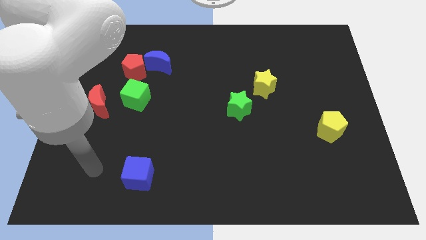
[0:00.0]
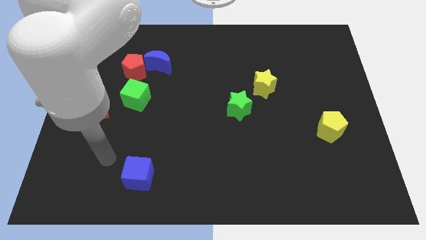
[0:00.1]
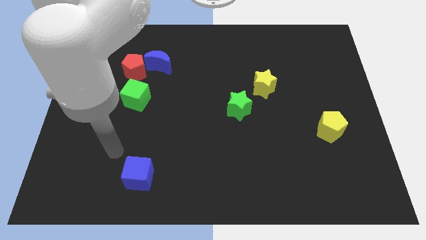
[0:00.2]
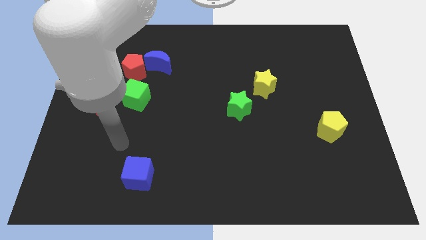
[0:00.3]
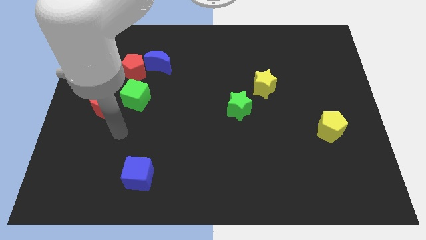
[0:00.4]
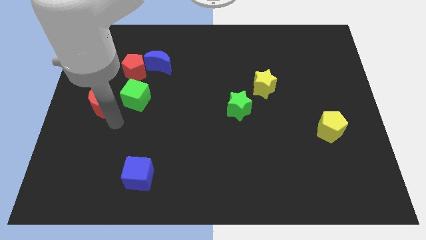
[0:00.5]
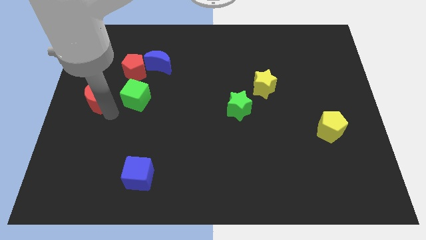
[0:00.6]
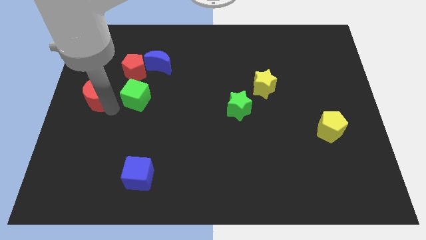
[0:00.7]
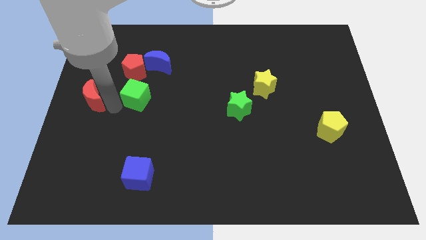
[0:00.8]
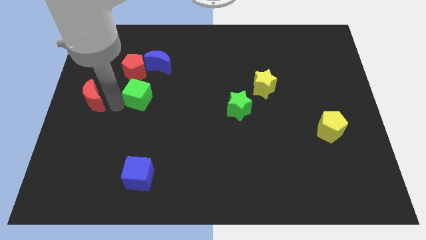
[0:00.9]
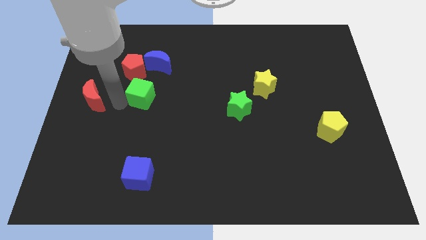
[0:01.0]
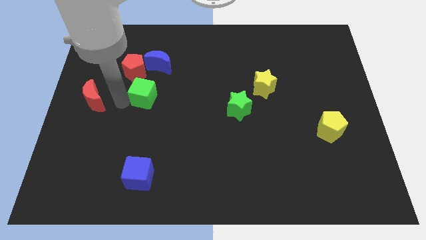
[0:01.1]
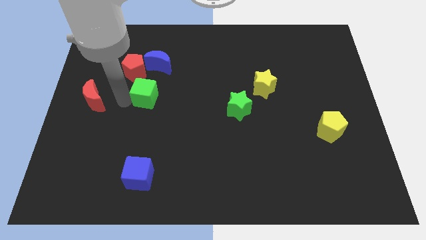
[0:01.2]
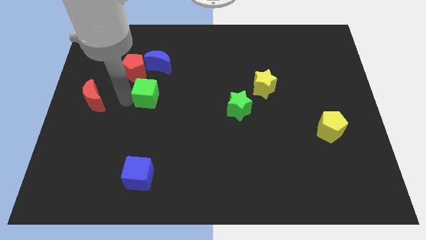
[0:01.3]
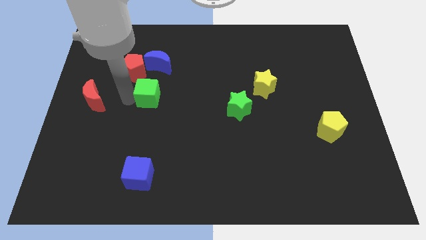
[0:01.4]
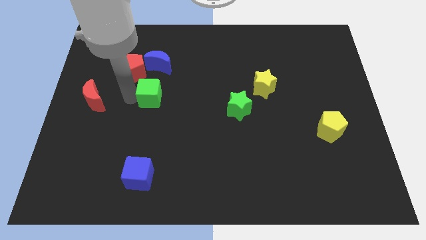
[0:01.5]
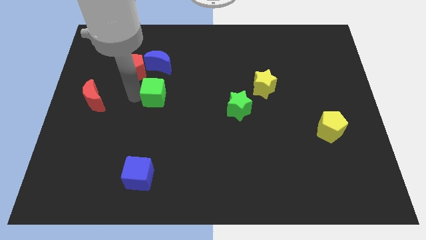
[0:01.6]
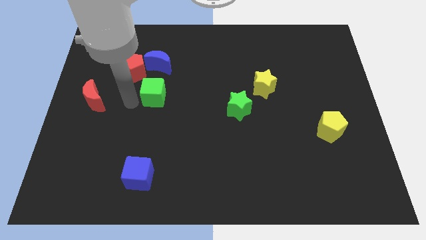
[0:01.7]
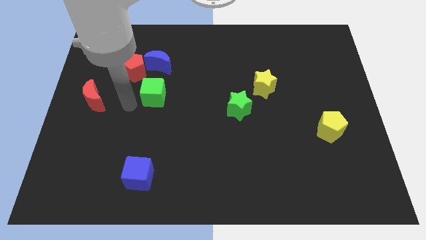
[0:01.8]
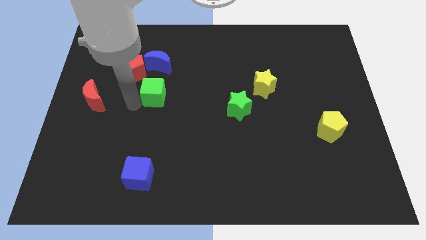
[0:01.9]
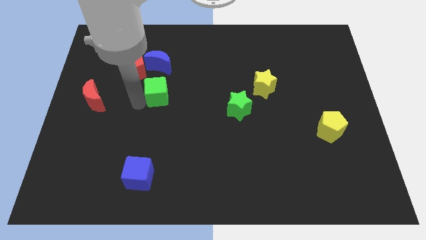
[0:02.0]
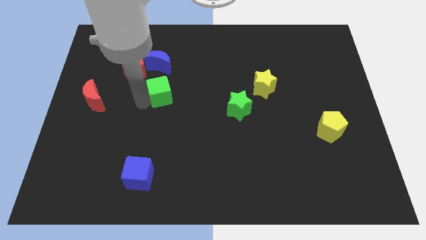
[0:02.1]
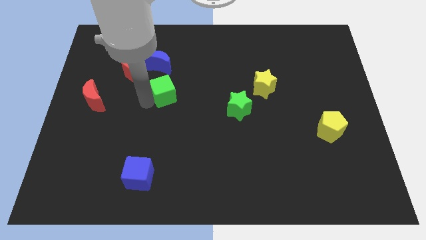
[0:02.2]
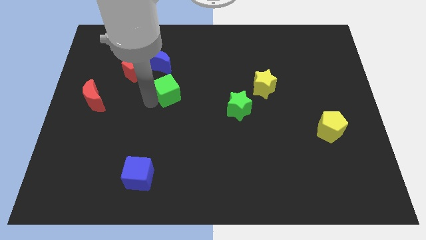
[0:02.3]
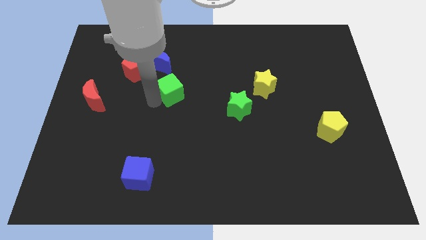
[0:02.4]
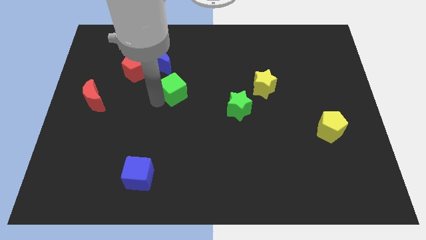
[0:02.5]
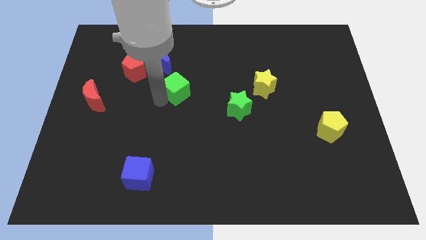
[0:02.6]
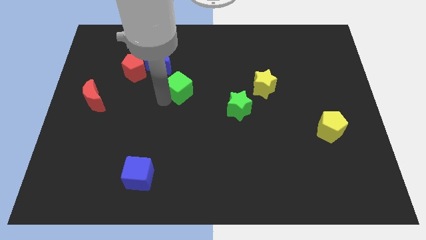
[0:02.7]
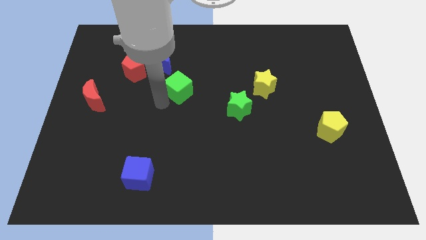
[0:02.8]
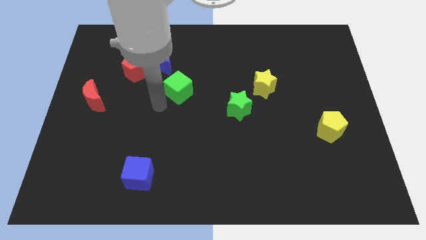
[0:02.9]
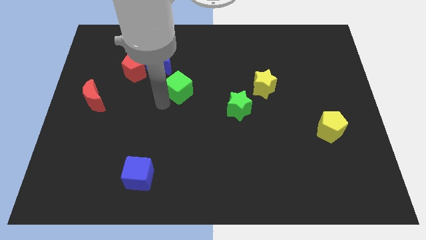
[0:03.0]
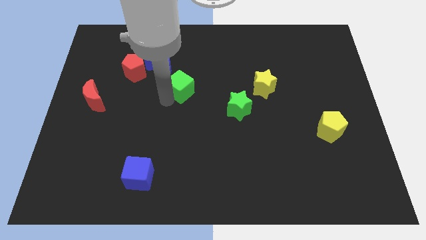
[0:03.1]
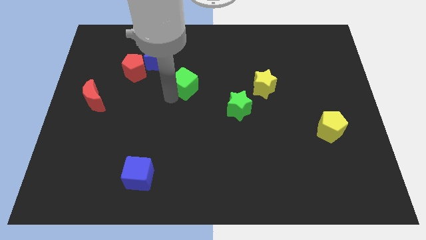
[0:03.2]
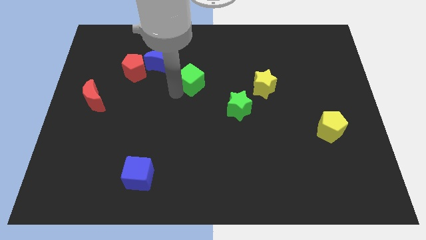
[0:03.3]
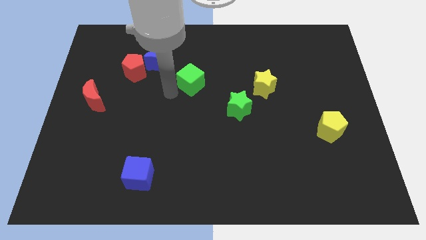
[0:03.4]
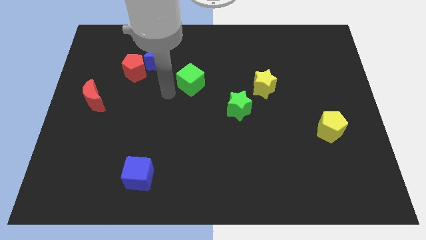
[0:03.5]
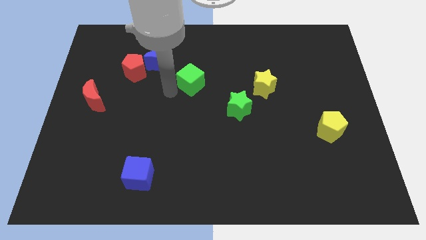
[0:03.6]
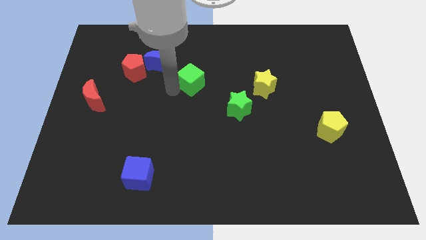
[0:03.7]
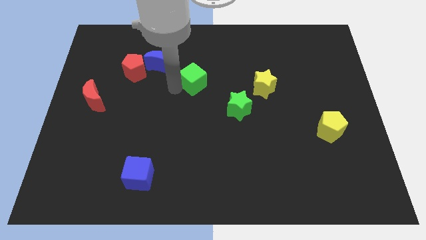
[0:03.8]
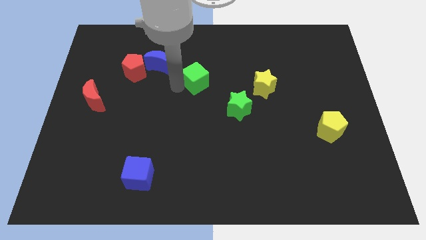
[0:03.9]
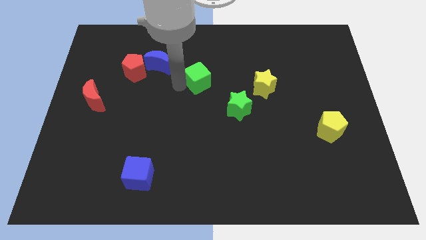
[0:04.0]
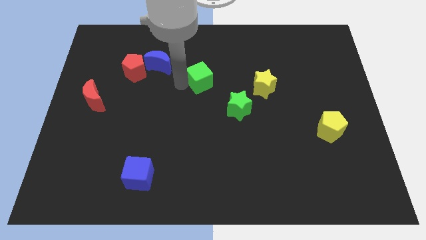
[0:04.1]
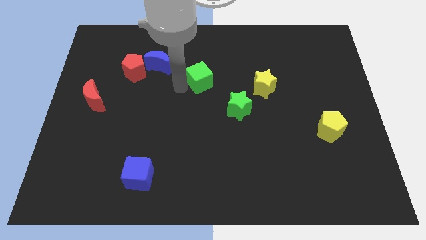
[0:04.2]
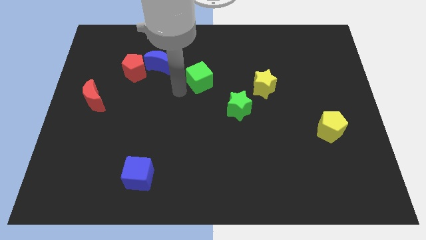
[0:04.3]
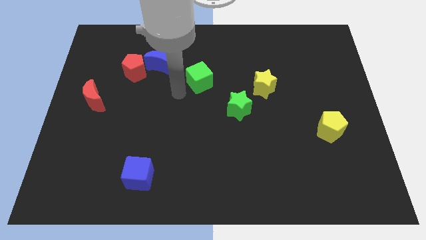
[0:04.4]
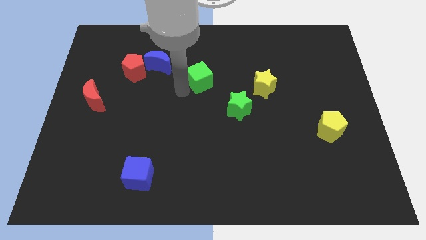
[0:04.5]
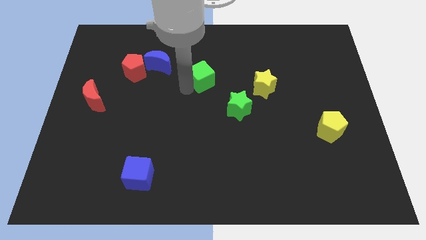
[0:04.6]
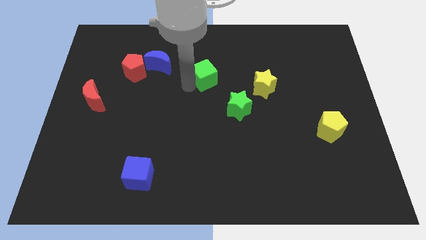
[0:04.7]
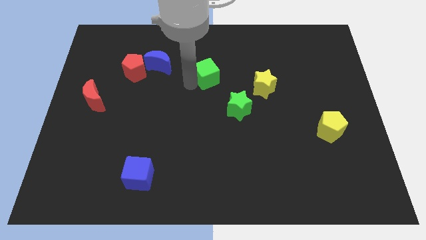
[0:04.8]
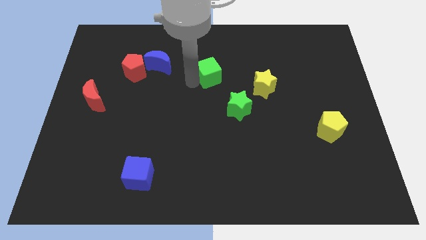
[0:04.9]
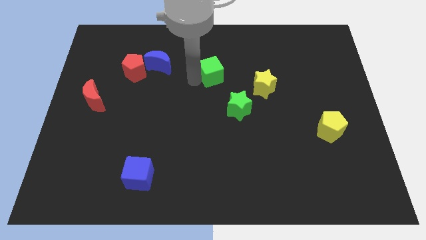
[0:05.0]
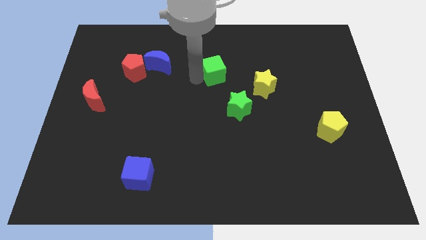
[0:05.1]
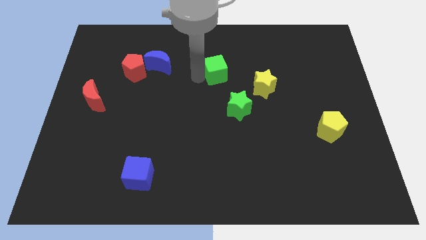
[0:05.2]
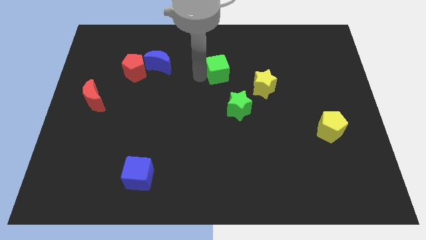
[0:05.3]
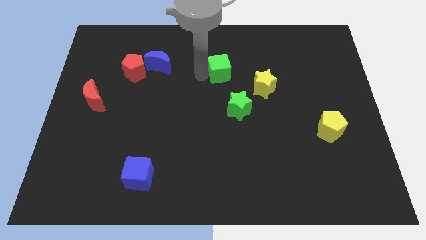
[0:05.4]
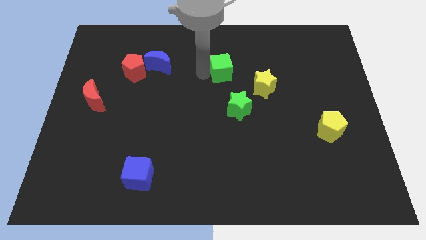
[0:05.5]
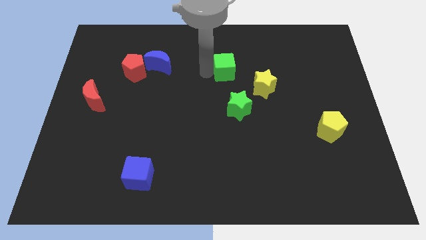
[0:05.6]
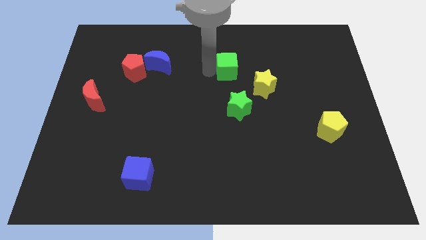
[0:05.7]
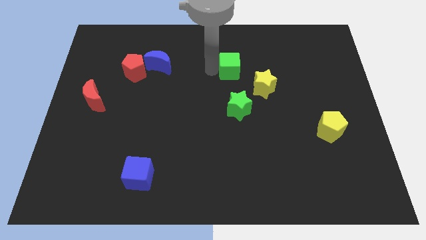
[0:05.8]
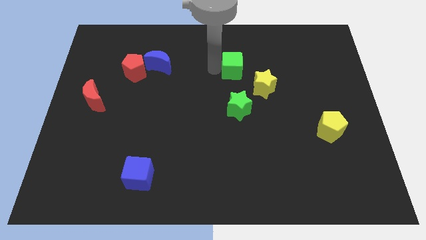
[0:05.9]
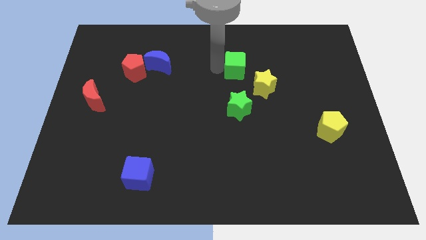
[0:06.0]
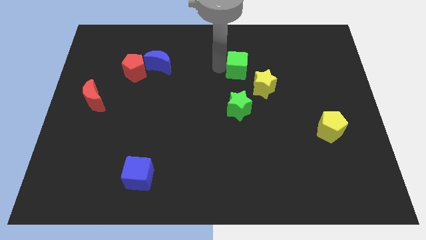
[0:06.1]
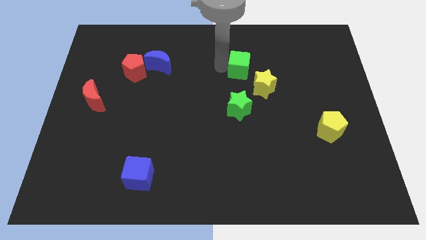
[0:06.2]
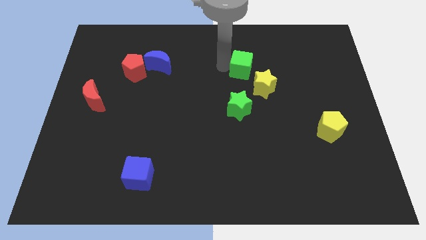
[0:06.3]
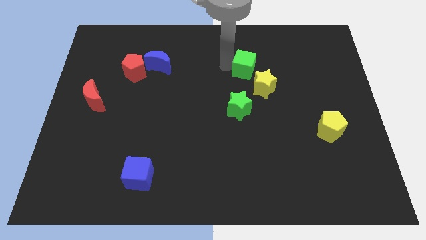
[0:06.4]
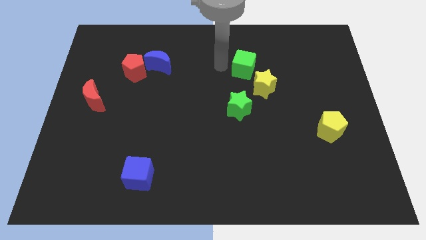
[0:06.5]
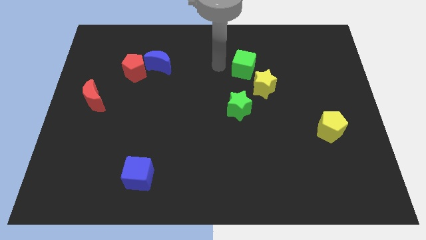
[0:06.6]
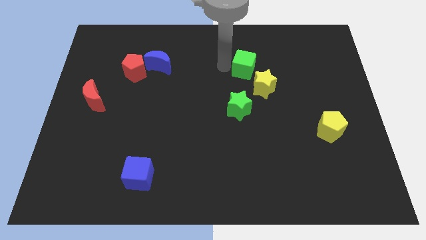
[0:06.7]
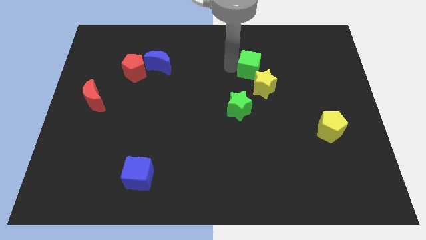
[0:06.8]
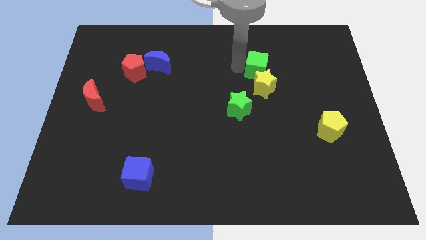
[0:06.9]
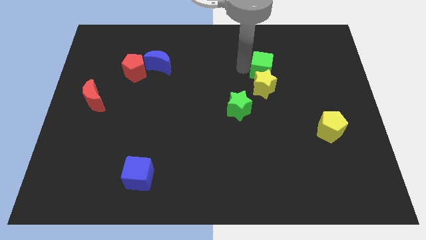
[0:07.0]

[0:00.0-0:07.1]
slide the green cube to the top right side of the yellow star
